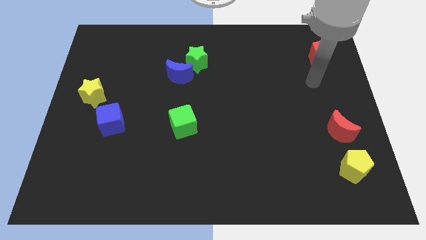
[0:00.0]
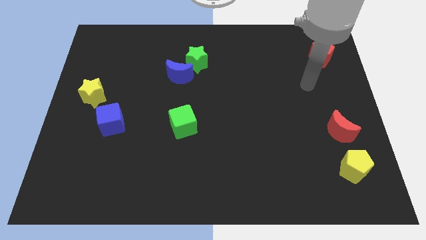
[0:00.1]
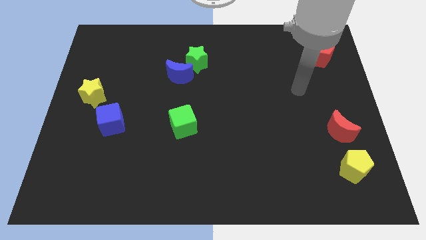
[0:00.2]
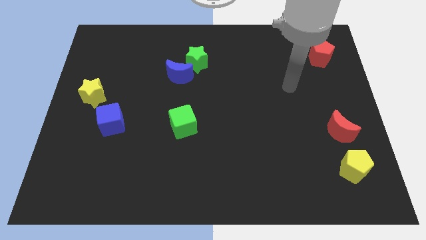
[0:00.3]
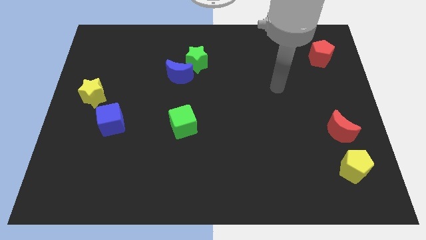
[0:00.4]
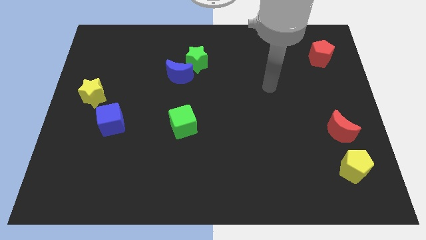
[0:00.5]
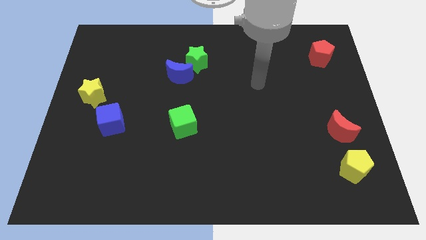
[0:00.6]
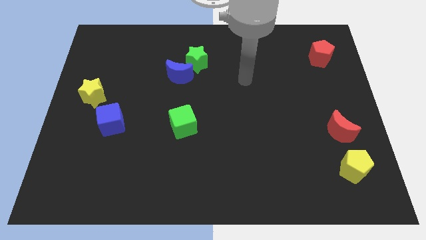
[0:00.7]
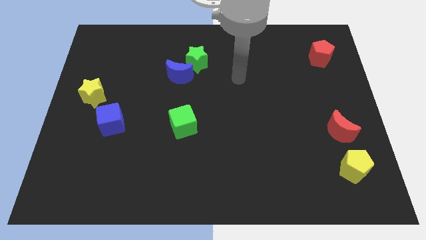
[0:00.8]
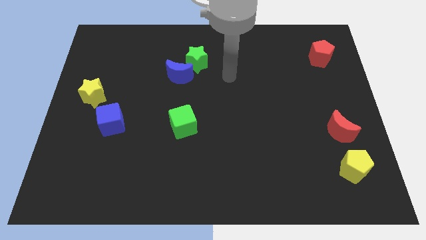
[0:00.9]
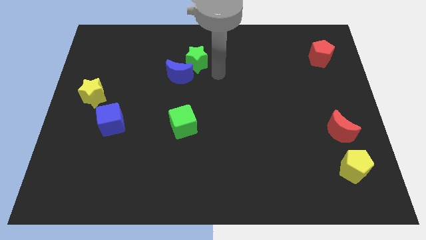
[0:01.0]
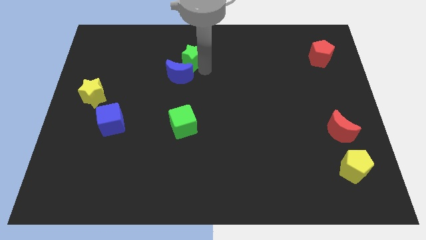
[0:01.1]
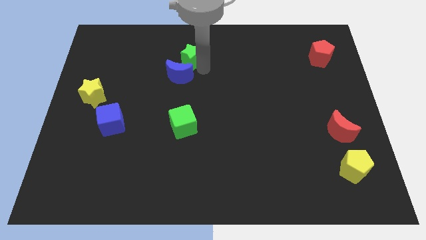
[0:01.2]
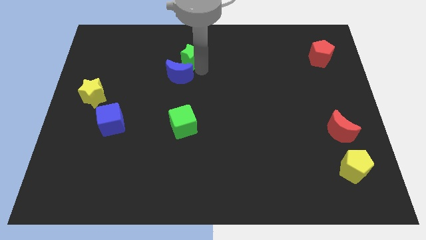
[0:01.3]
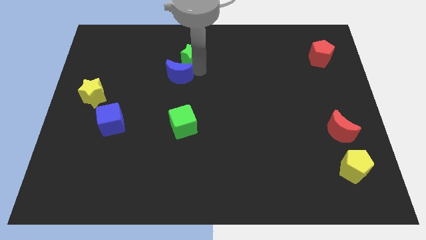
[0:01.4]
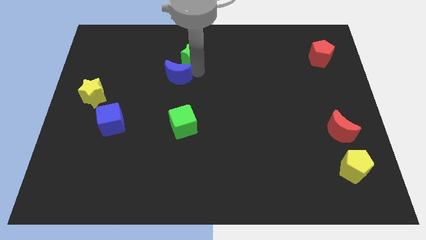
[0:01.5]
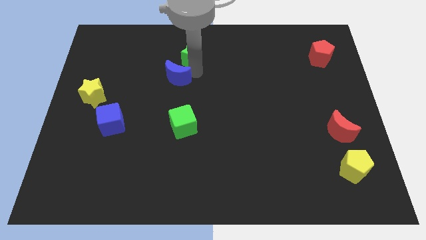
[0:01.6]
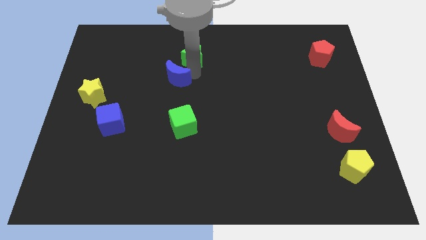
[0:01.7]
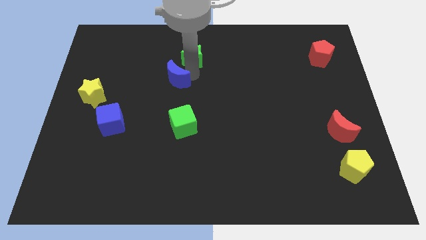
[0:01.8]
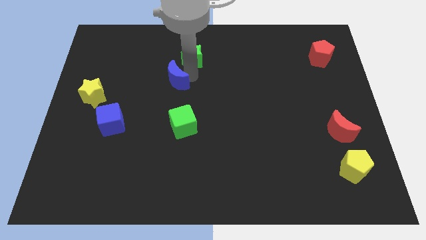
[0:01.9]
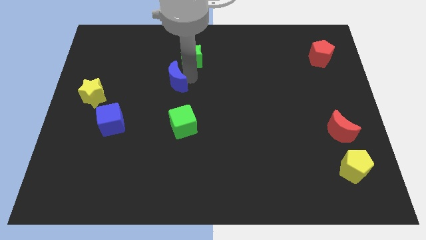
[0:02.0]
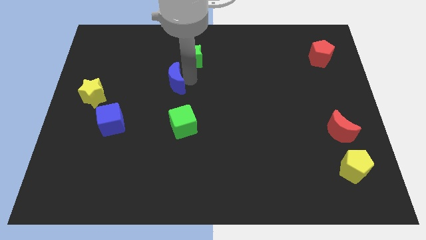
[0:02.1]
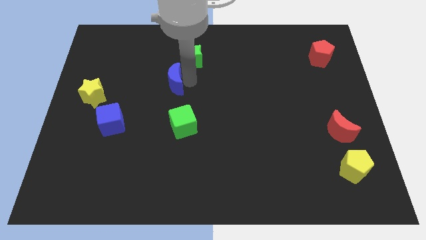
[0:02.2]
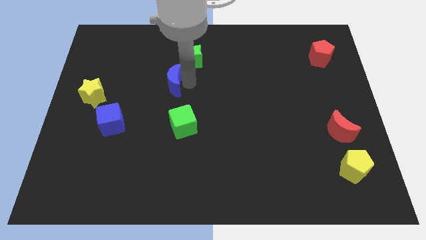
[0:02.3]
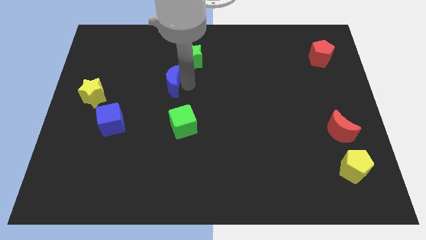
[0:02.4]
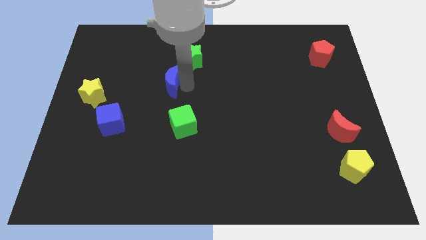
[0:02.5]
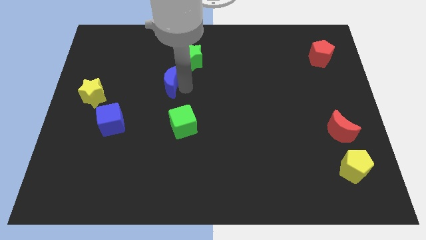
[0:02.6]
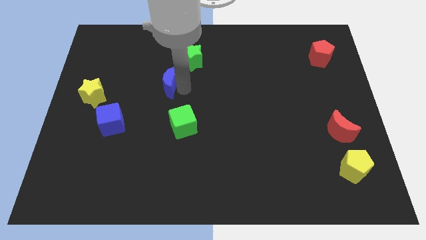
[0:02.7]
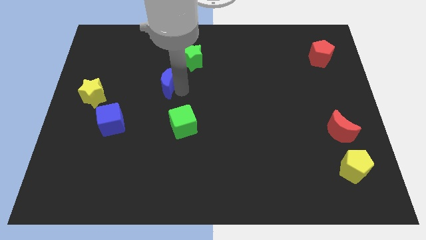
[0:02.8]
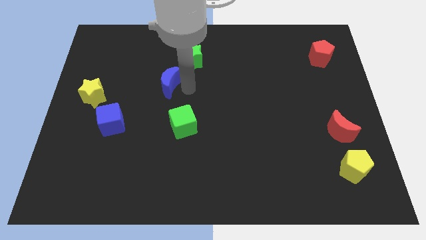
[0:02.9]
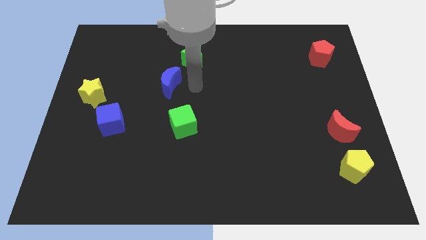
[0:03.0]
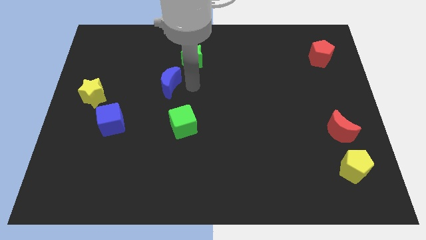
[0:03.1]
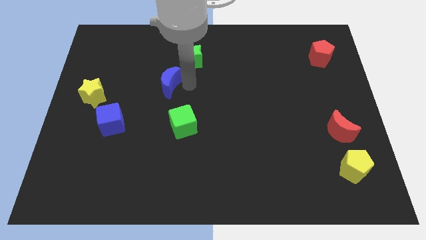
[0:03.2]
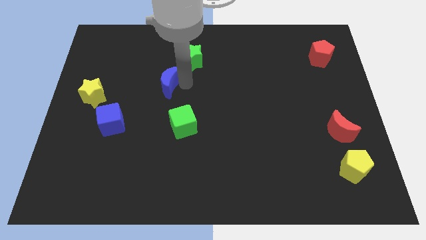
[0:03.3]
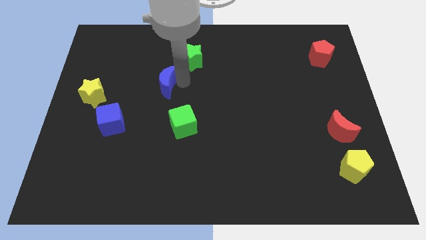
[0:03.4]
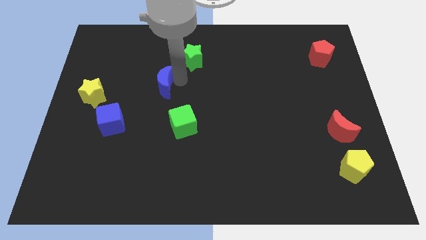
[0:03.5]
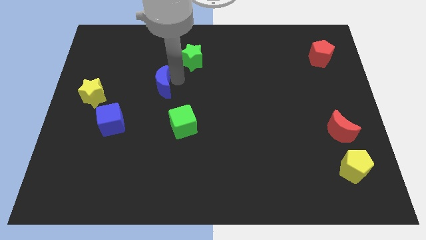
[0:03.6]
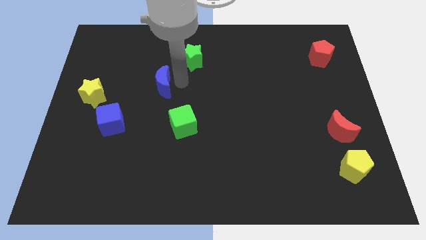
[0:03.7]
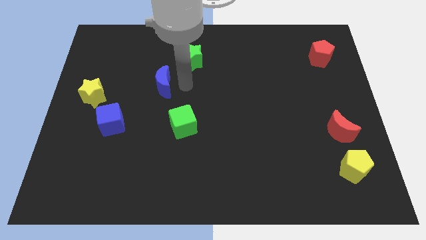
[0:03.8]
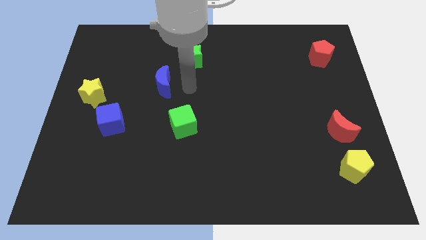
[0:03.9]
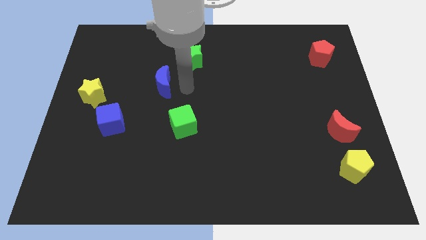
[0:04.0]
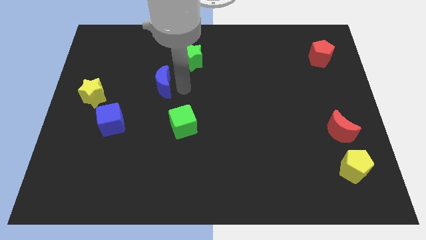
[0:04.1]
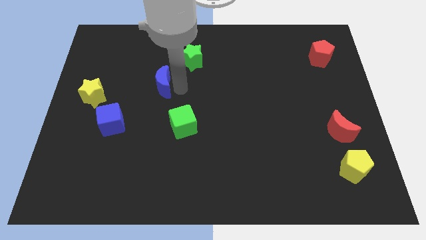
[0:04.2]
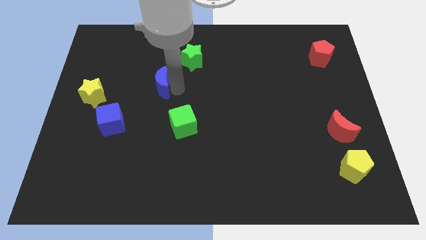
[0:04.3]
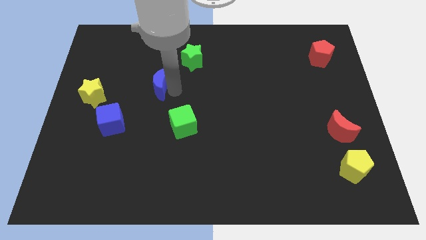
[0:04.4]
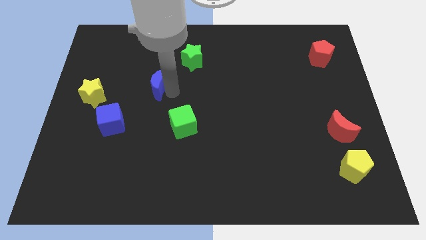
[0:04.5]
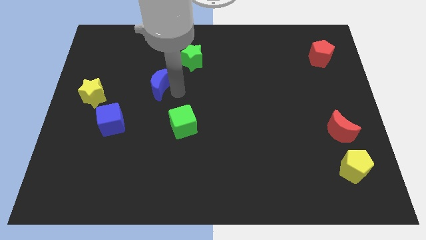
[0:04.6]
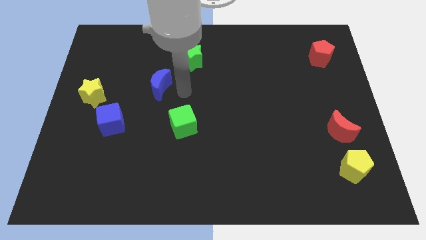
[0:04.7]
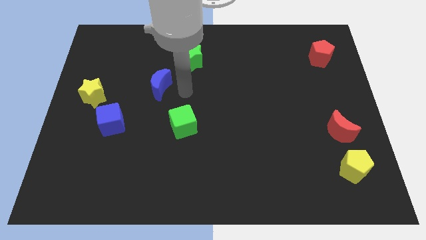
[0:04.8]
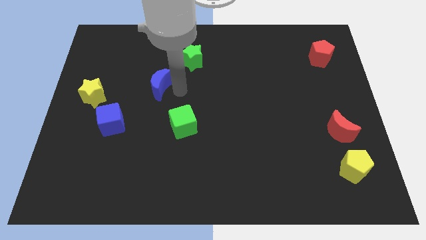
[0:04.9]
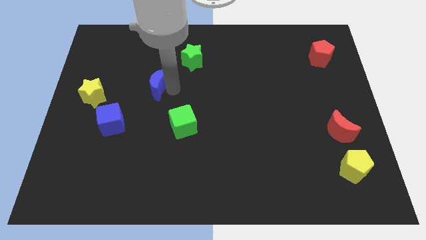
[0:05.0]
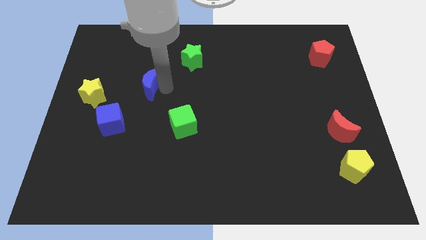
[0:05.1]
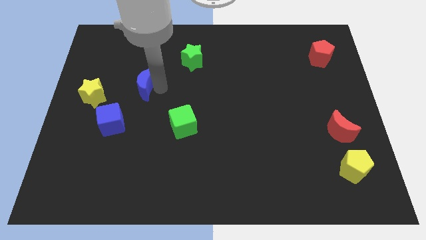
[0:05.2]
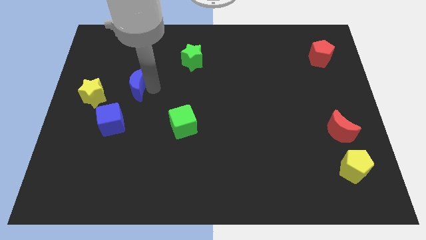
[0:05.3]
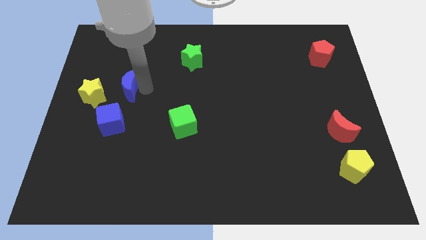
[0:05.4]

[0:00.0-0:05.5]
push the blue moon diagonally up and to the right of the yellow star

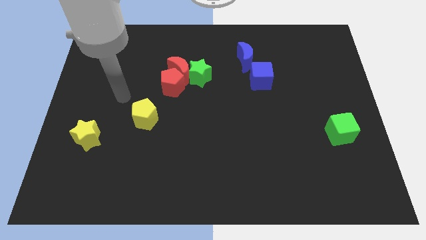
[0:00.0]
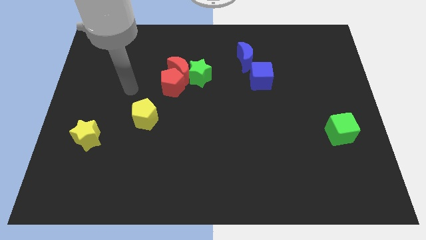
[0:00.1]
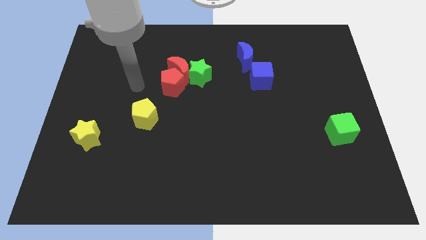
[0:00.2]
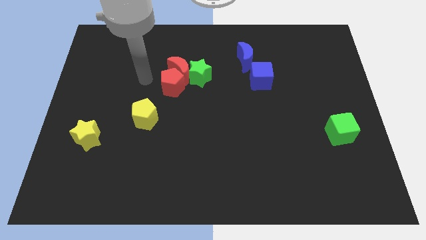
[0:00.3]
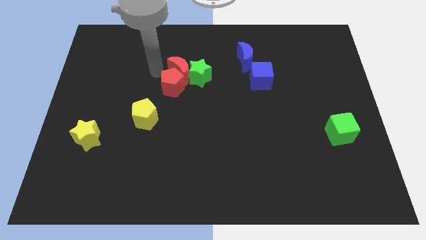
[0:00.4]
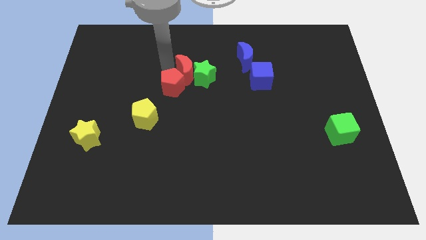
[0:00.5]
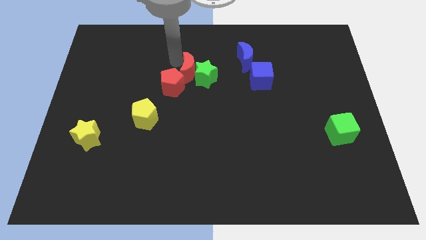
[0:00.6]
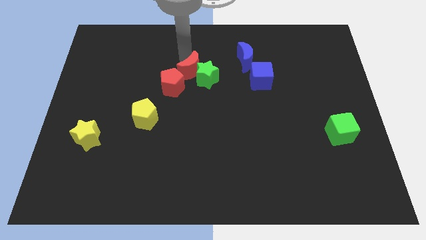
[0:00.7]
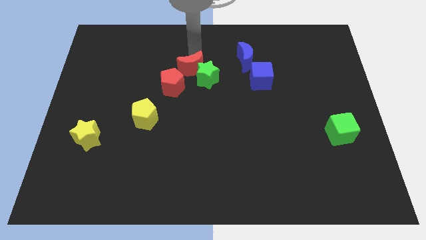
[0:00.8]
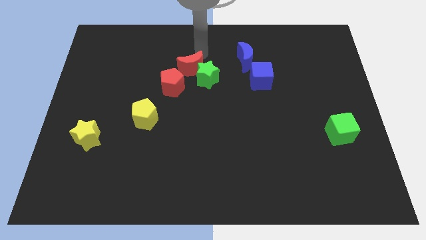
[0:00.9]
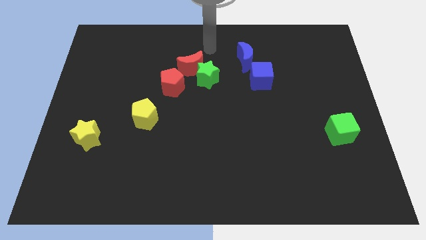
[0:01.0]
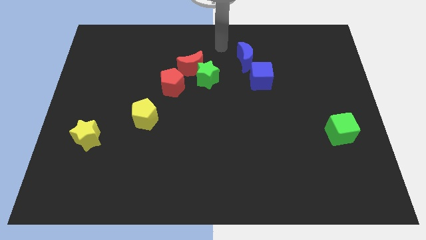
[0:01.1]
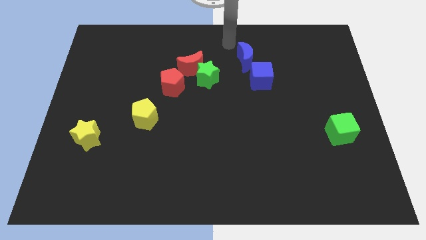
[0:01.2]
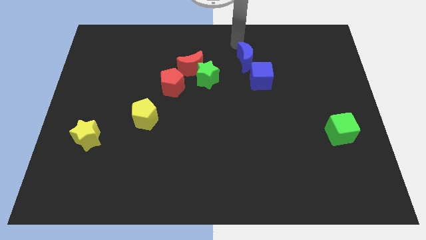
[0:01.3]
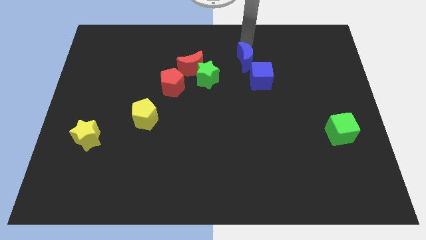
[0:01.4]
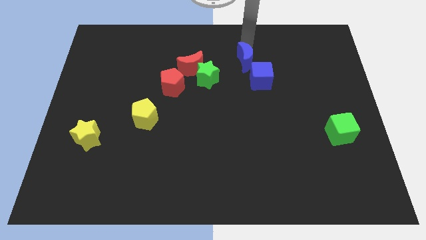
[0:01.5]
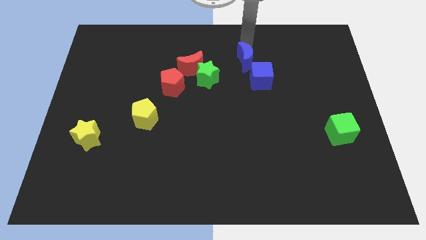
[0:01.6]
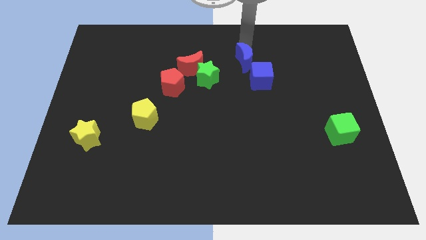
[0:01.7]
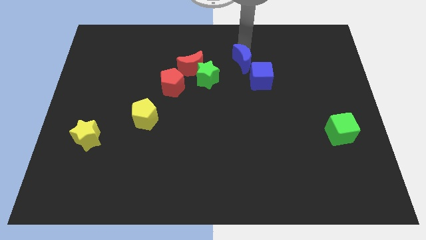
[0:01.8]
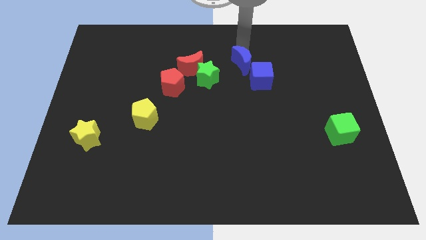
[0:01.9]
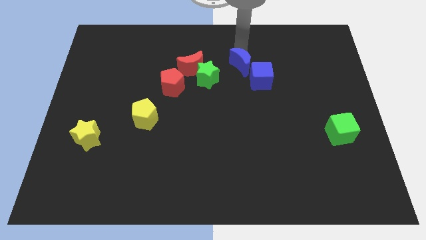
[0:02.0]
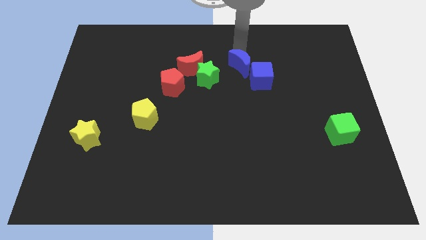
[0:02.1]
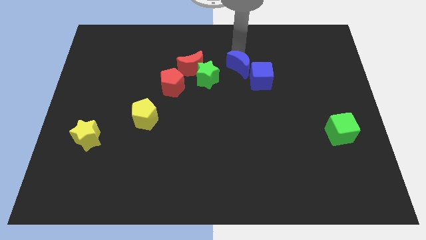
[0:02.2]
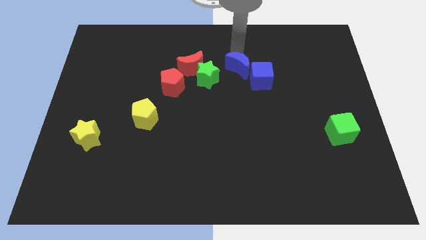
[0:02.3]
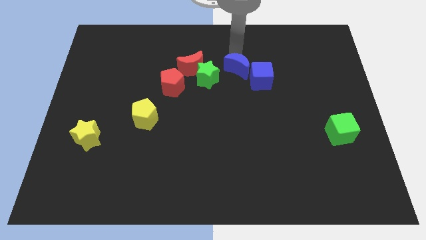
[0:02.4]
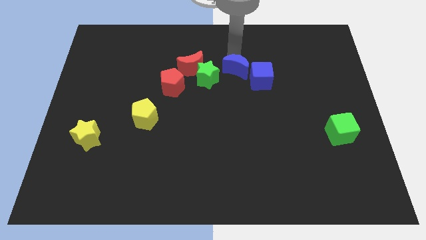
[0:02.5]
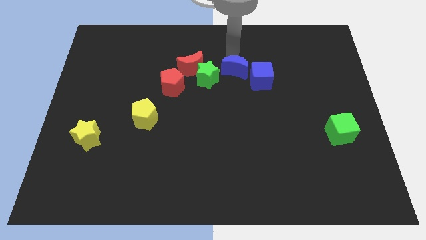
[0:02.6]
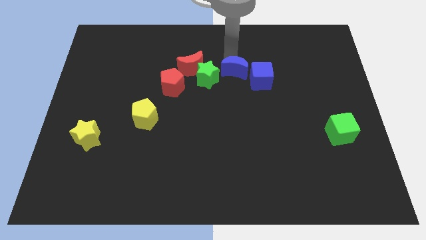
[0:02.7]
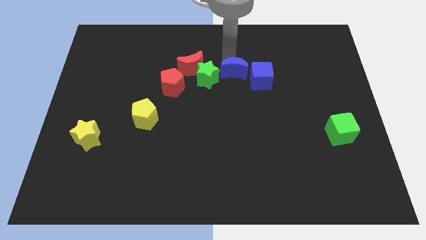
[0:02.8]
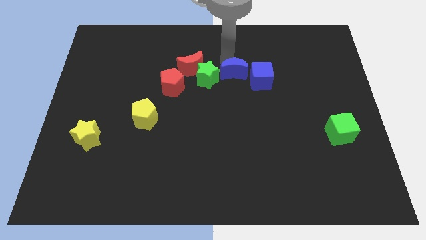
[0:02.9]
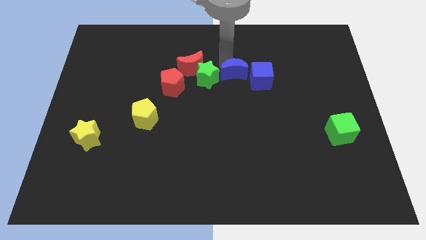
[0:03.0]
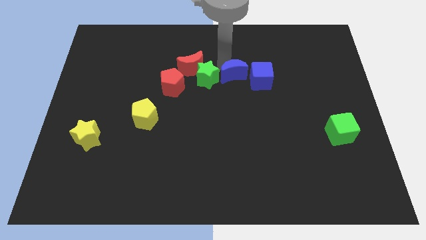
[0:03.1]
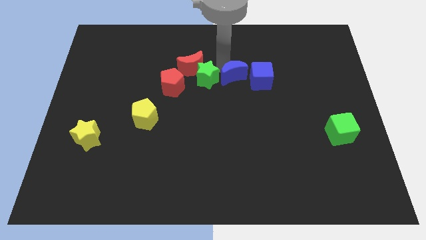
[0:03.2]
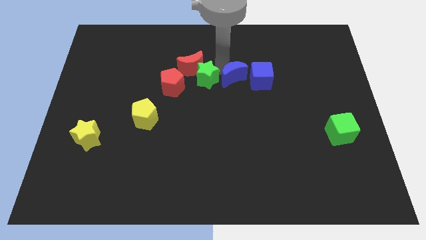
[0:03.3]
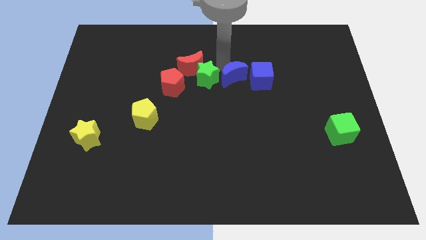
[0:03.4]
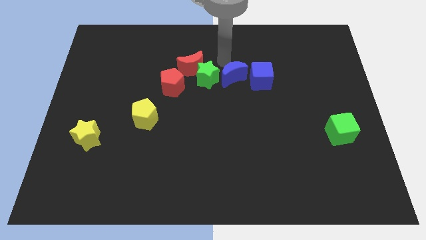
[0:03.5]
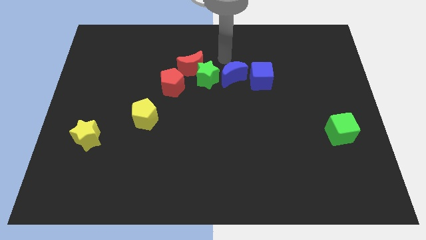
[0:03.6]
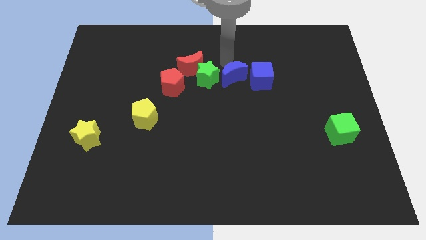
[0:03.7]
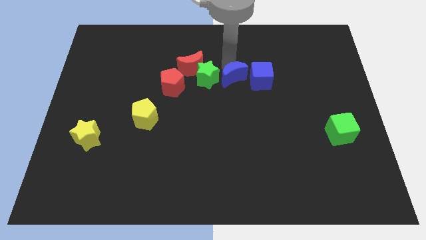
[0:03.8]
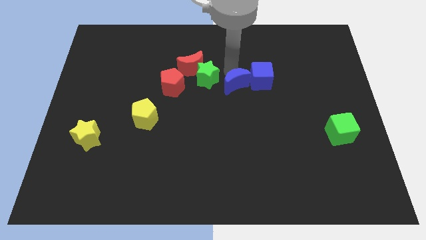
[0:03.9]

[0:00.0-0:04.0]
push the blue moon diagonally down and to the left of the blue cube
